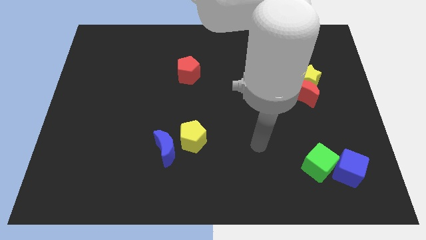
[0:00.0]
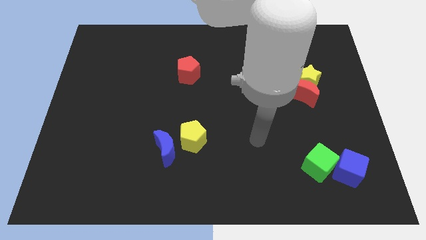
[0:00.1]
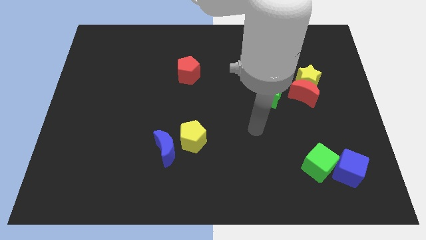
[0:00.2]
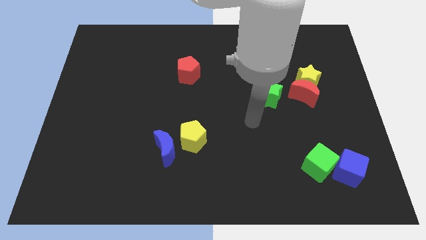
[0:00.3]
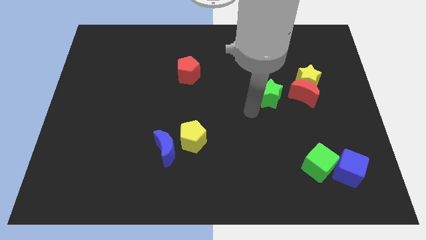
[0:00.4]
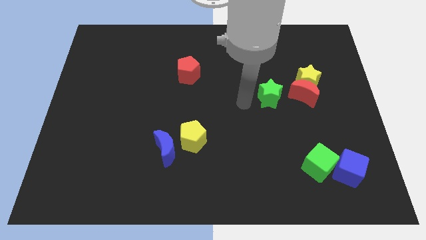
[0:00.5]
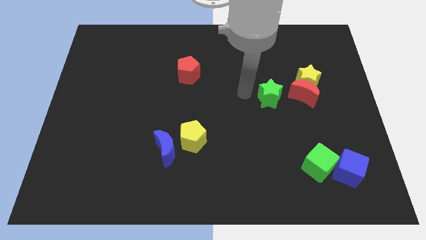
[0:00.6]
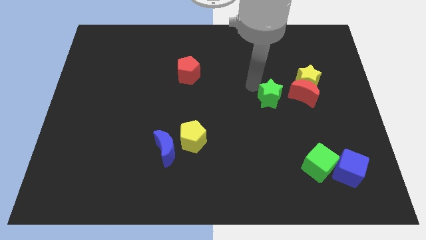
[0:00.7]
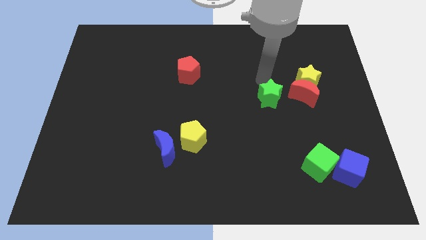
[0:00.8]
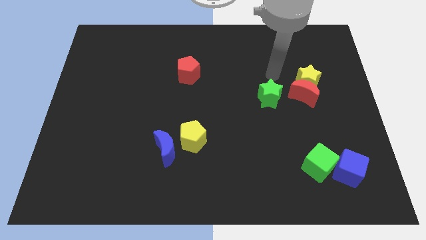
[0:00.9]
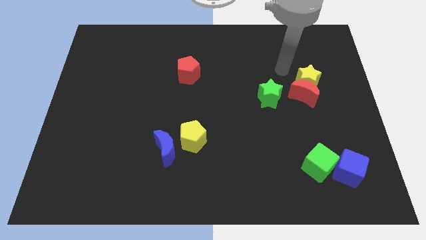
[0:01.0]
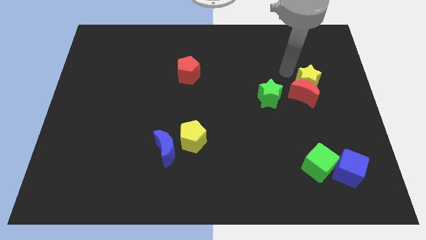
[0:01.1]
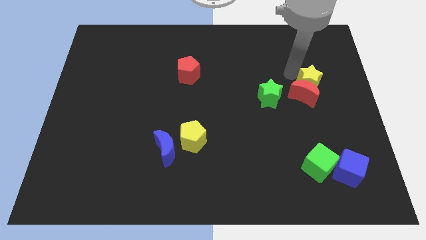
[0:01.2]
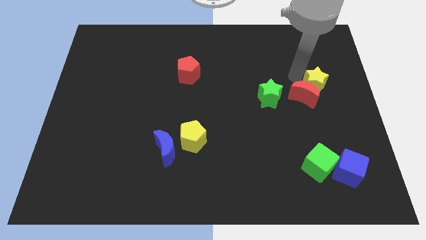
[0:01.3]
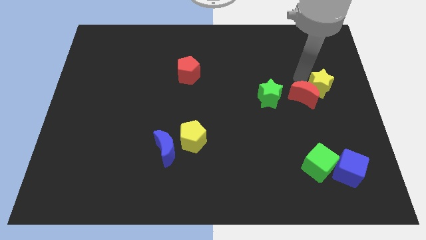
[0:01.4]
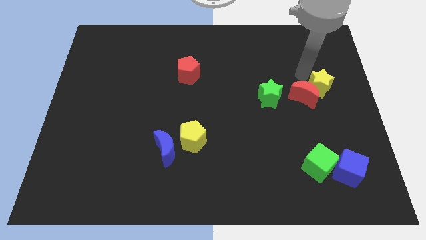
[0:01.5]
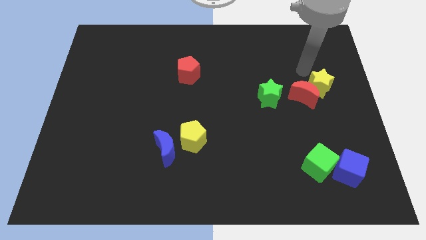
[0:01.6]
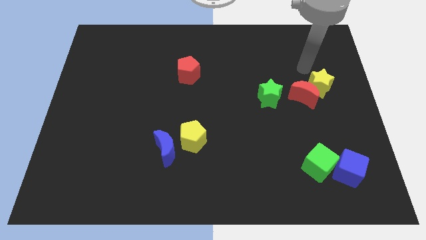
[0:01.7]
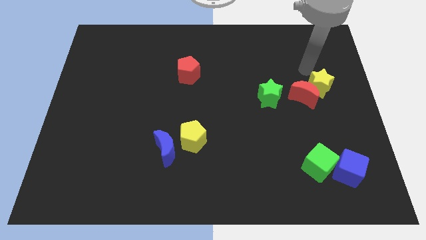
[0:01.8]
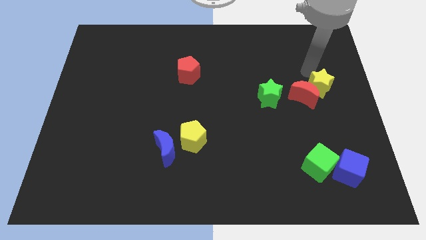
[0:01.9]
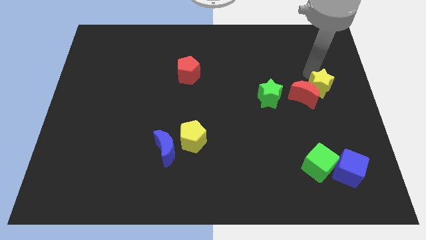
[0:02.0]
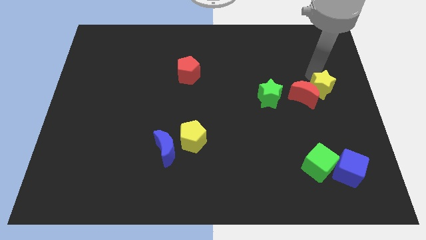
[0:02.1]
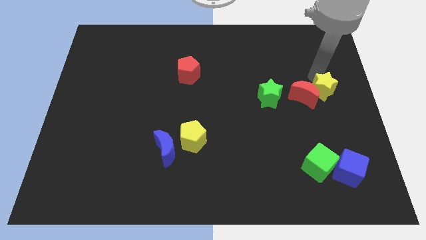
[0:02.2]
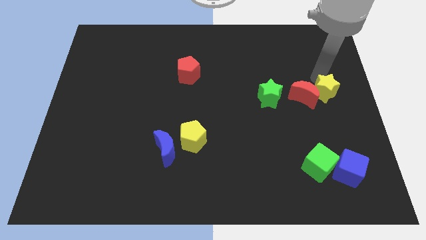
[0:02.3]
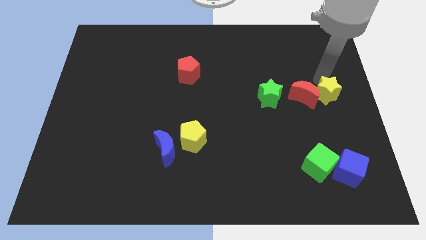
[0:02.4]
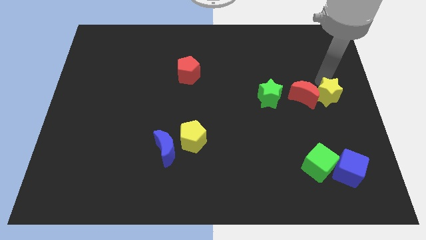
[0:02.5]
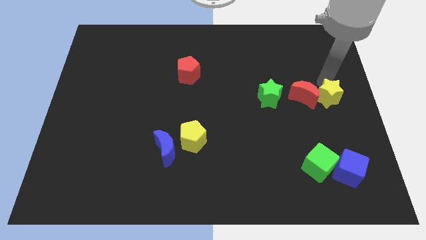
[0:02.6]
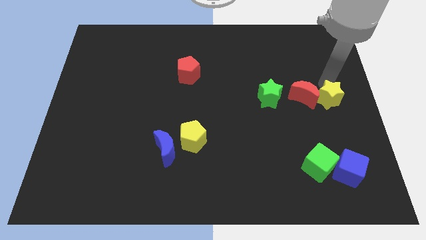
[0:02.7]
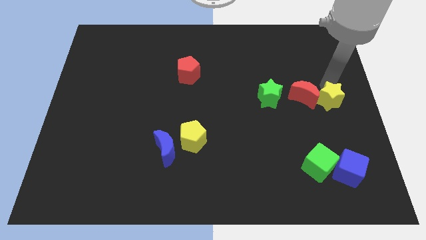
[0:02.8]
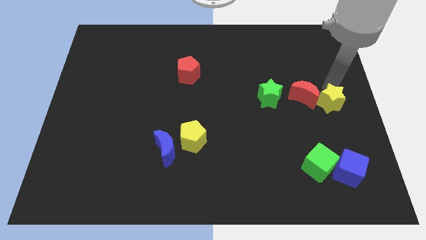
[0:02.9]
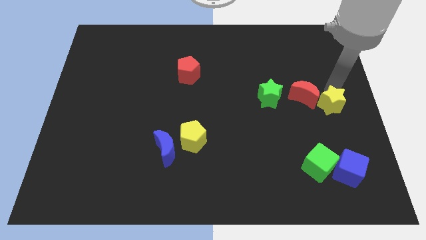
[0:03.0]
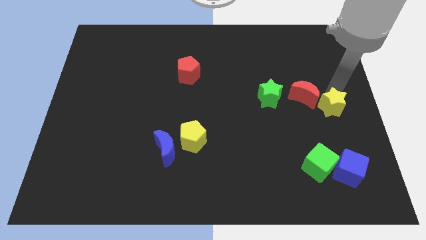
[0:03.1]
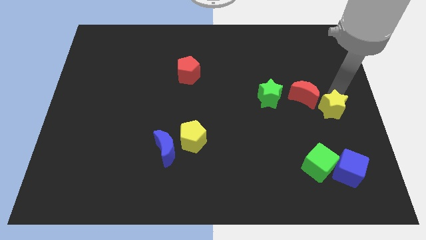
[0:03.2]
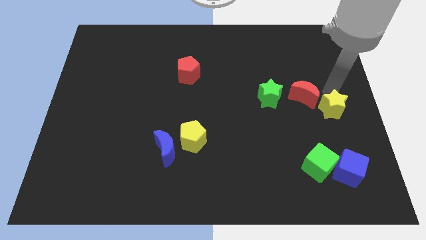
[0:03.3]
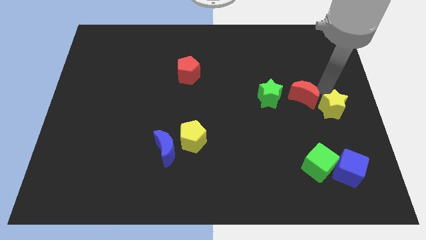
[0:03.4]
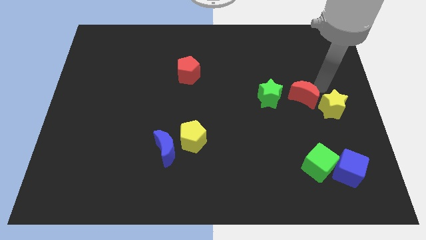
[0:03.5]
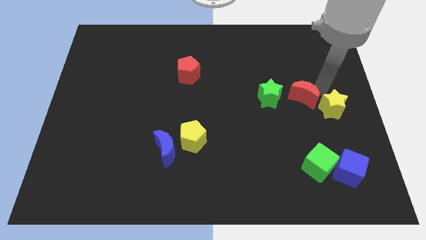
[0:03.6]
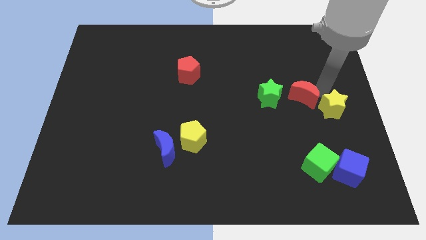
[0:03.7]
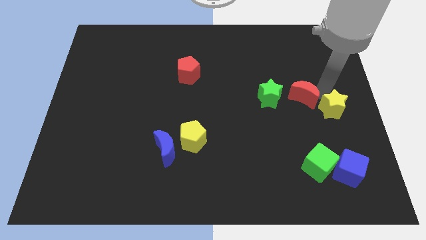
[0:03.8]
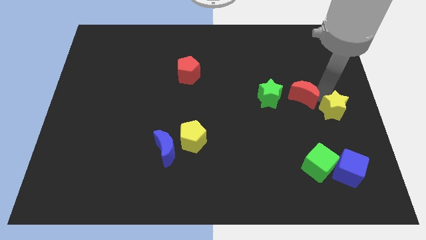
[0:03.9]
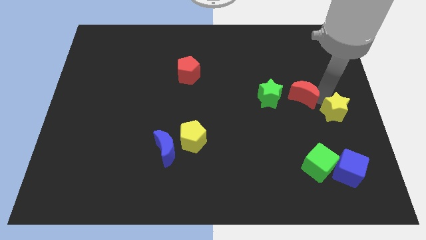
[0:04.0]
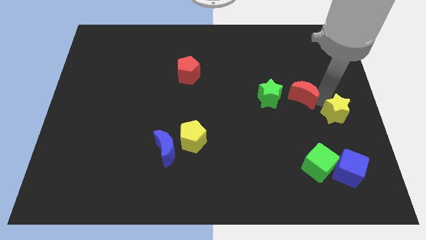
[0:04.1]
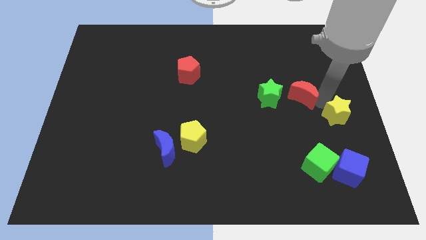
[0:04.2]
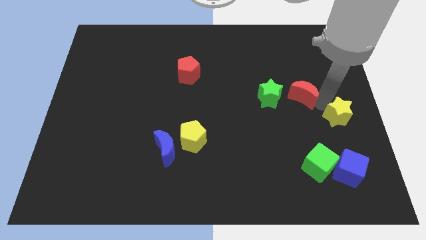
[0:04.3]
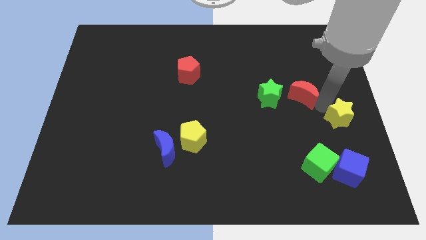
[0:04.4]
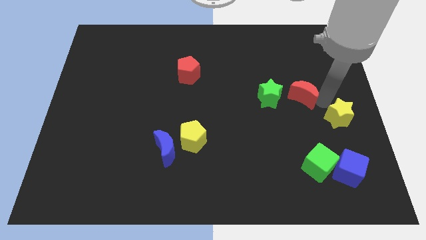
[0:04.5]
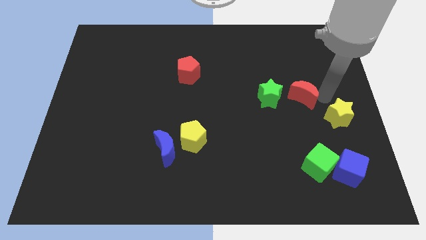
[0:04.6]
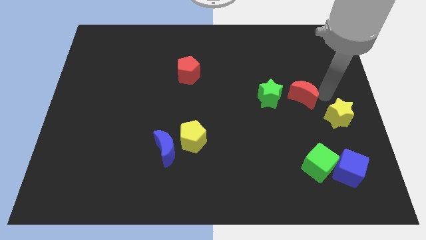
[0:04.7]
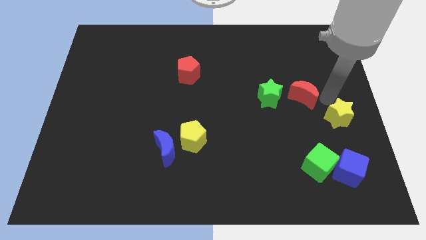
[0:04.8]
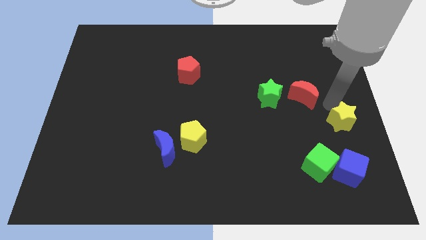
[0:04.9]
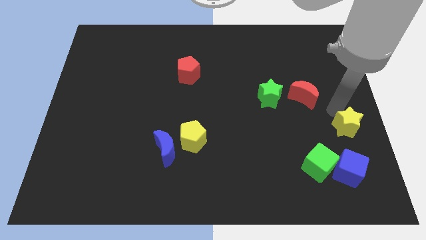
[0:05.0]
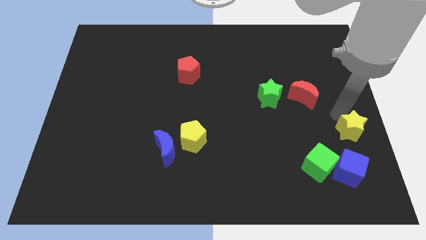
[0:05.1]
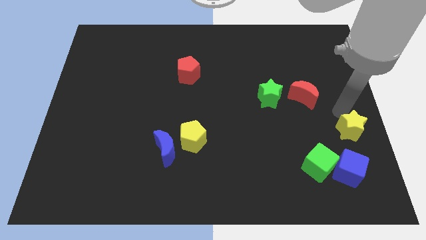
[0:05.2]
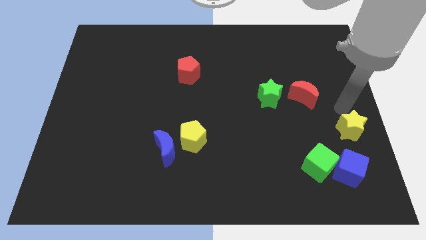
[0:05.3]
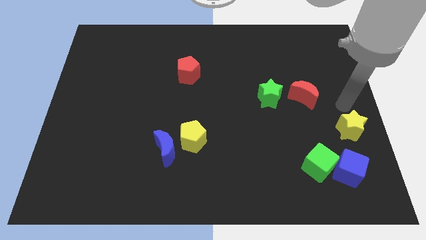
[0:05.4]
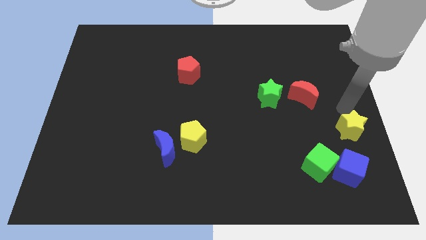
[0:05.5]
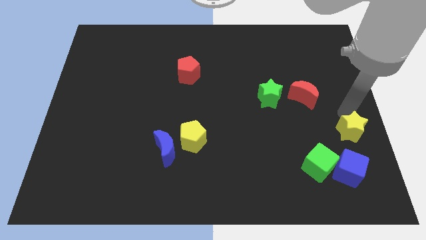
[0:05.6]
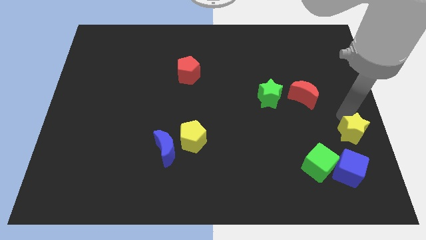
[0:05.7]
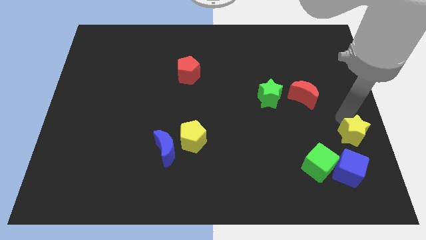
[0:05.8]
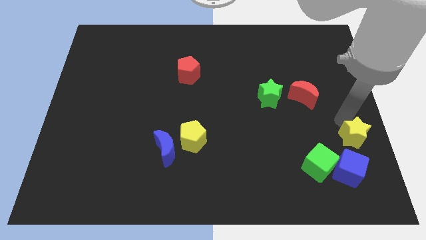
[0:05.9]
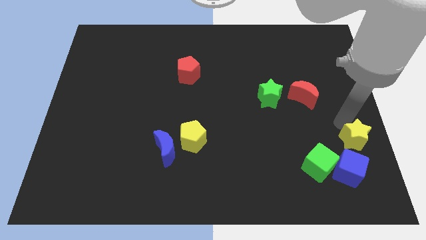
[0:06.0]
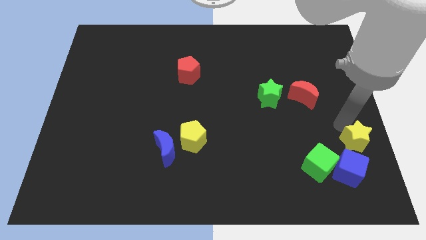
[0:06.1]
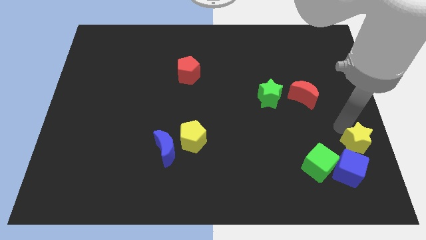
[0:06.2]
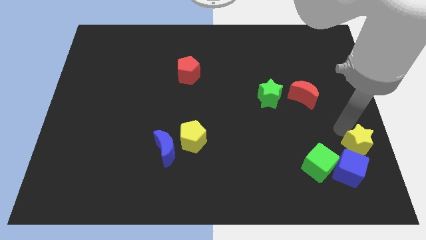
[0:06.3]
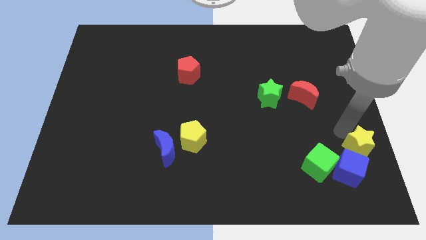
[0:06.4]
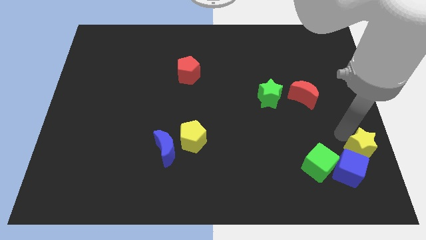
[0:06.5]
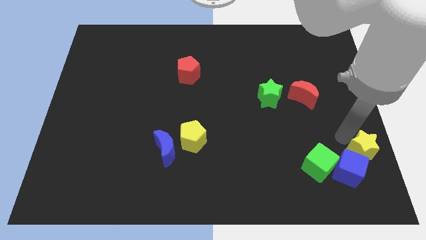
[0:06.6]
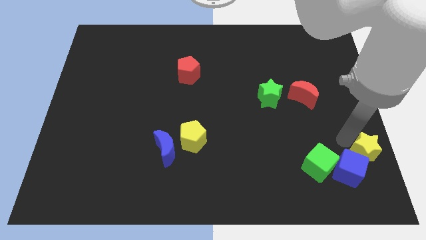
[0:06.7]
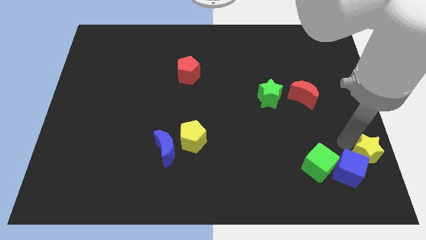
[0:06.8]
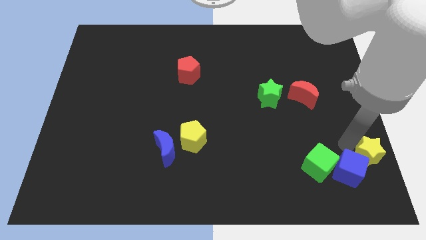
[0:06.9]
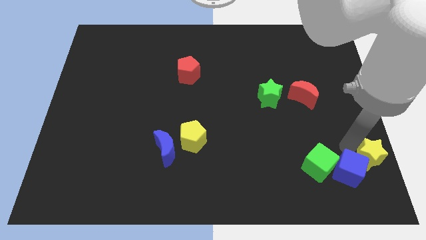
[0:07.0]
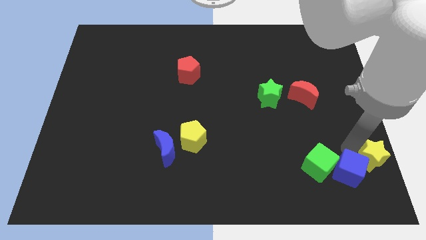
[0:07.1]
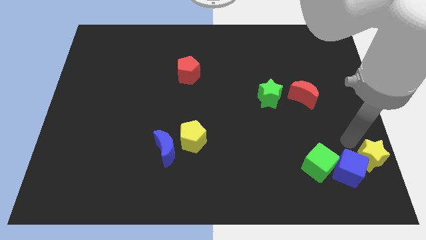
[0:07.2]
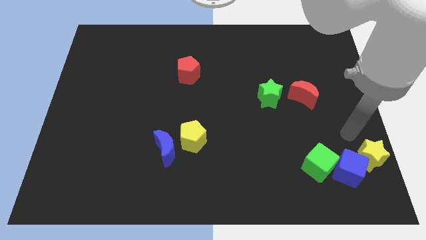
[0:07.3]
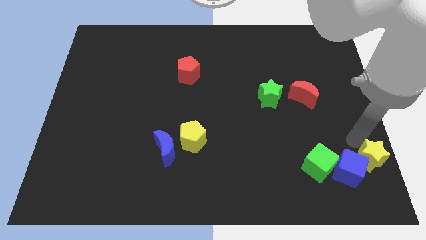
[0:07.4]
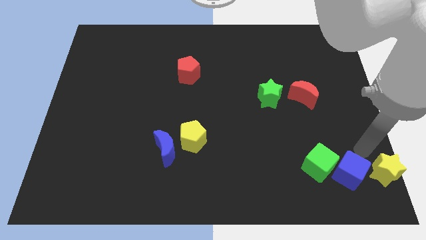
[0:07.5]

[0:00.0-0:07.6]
put the yellow star to the bottom right of the board
